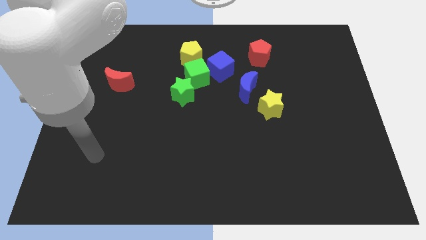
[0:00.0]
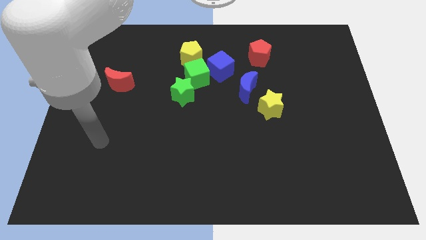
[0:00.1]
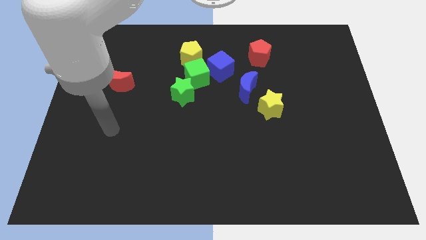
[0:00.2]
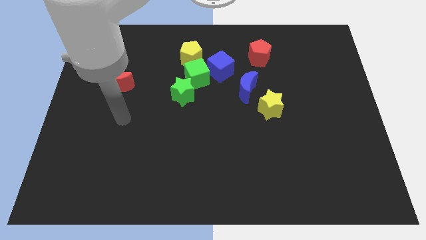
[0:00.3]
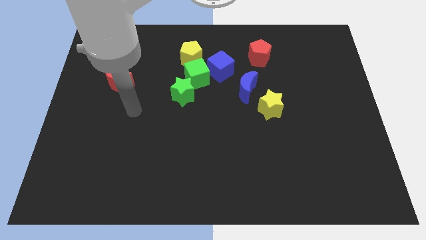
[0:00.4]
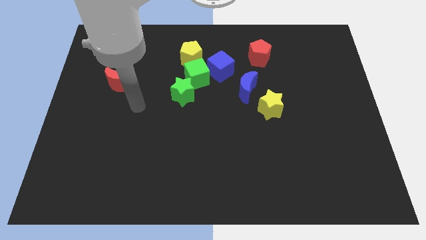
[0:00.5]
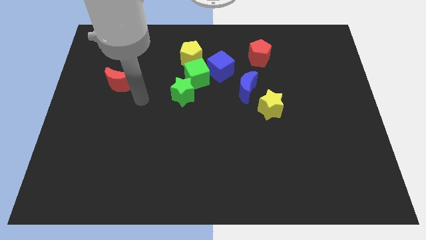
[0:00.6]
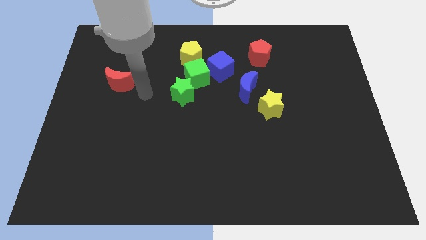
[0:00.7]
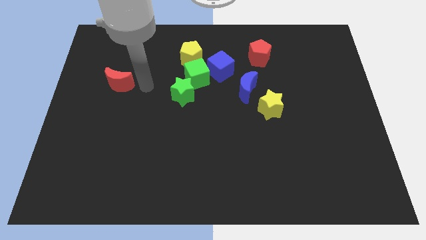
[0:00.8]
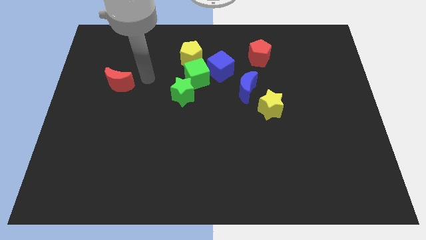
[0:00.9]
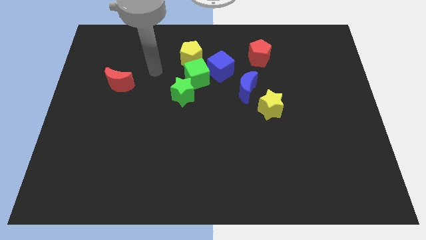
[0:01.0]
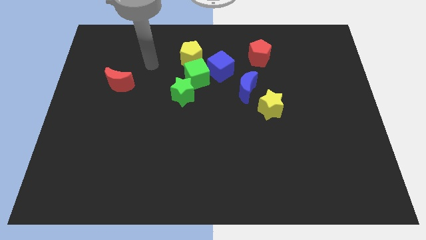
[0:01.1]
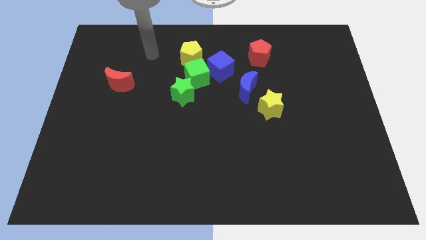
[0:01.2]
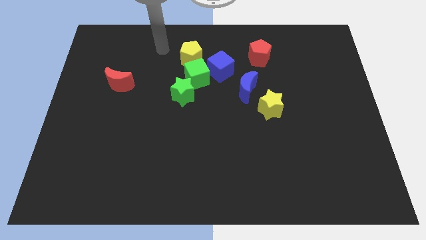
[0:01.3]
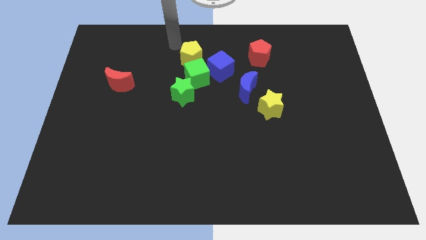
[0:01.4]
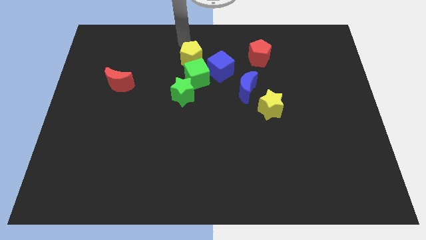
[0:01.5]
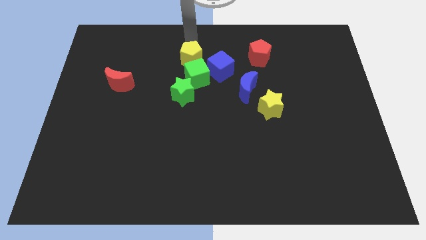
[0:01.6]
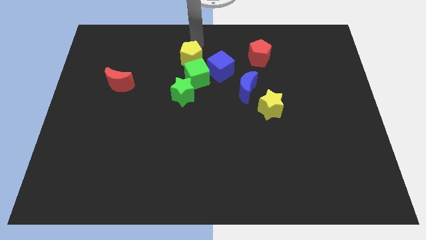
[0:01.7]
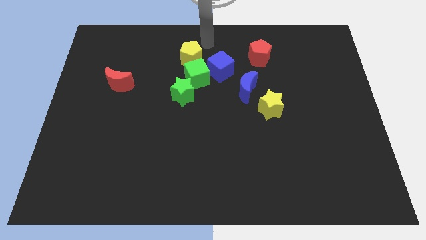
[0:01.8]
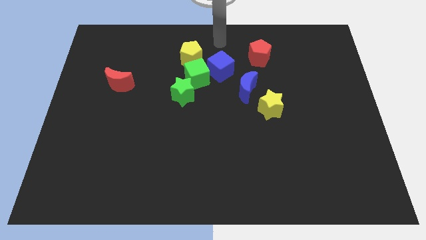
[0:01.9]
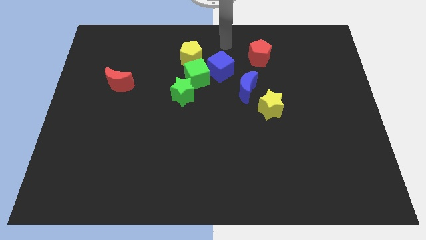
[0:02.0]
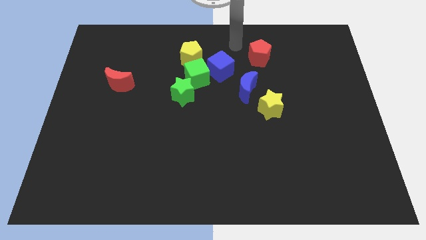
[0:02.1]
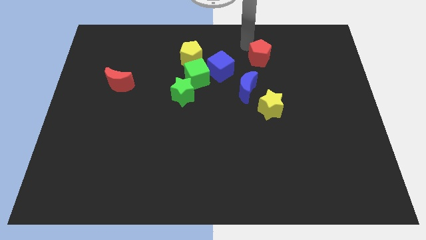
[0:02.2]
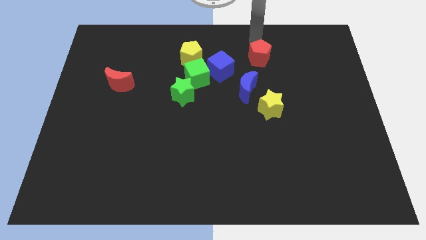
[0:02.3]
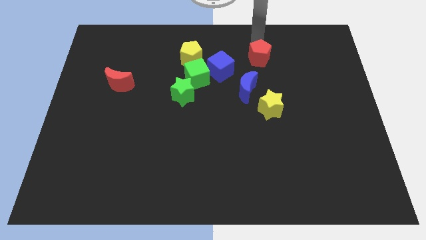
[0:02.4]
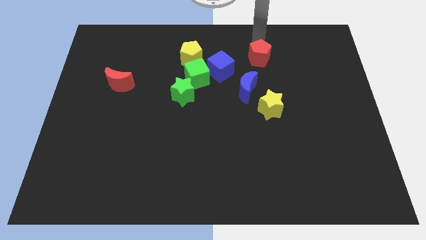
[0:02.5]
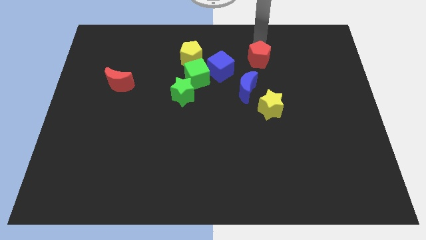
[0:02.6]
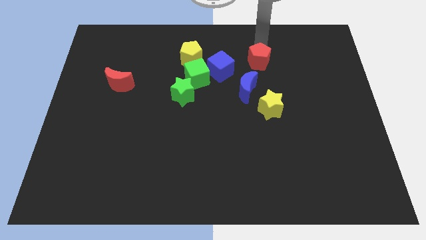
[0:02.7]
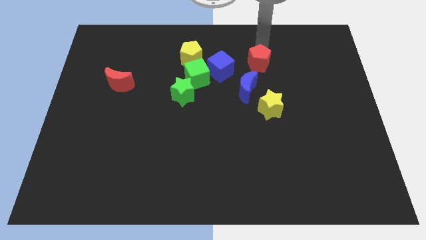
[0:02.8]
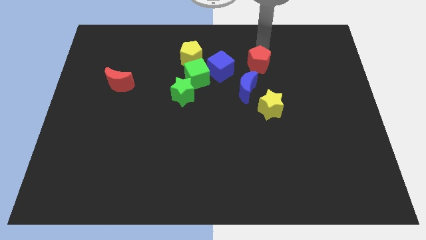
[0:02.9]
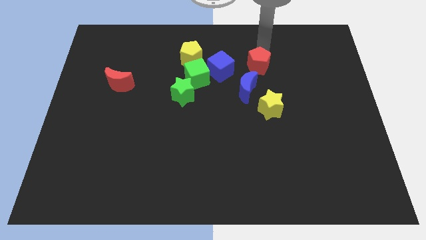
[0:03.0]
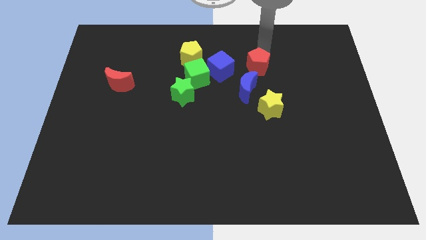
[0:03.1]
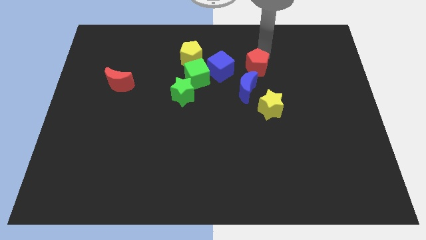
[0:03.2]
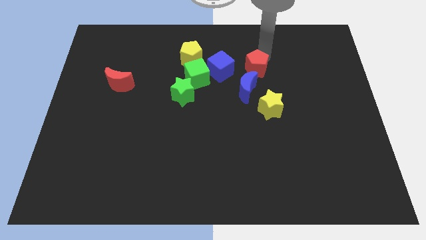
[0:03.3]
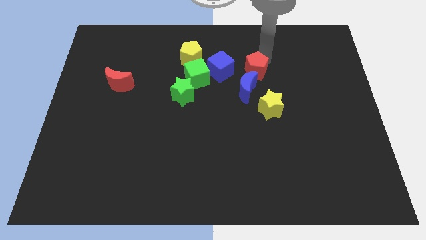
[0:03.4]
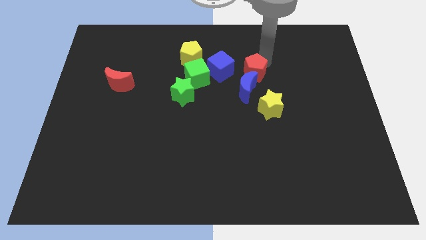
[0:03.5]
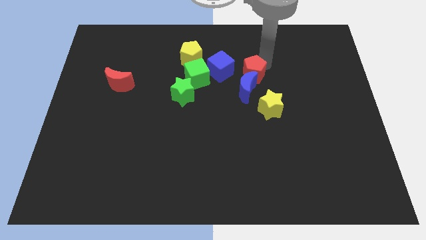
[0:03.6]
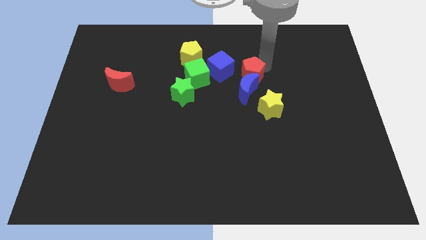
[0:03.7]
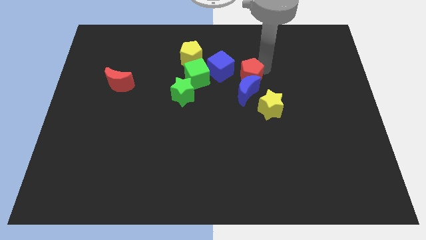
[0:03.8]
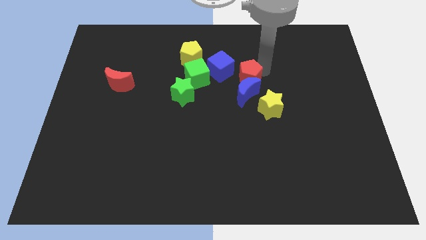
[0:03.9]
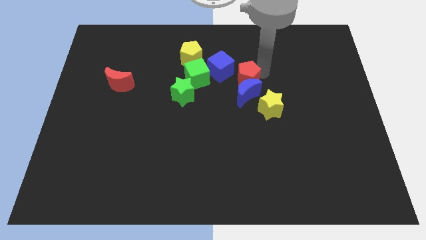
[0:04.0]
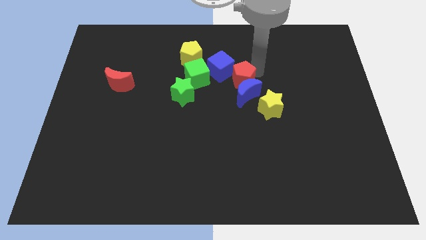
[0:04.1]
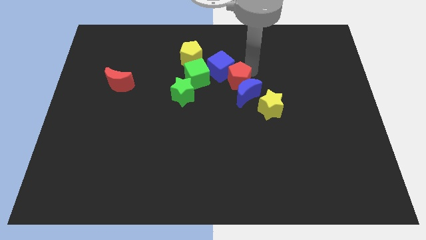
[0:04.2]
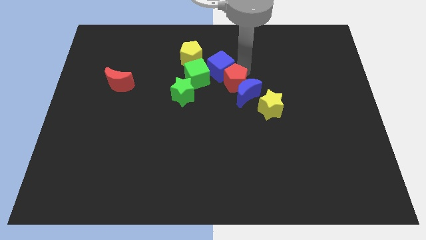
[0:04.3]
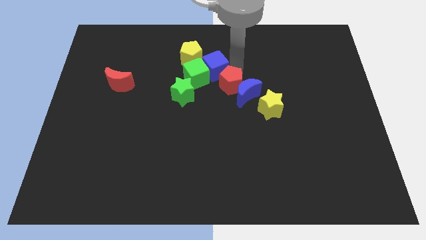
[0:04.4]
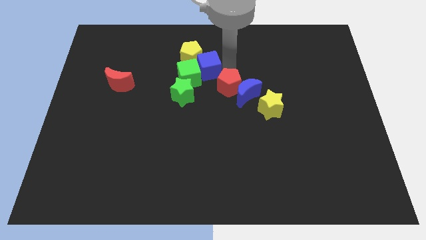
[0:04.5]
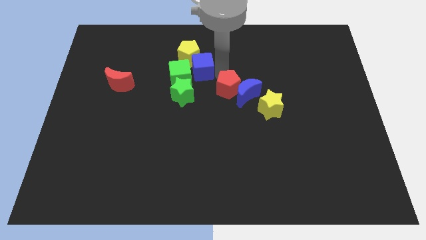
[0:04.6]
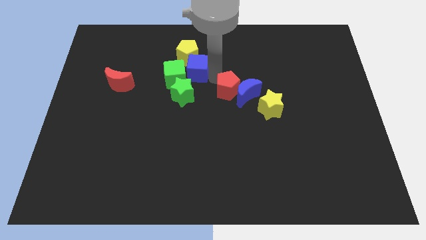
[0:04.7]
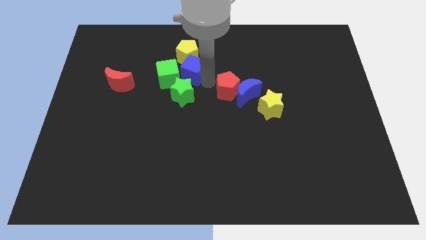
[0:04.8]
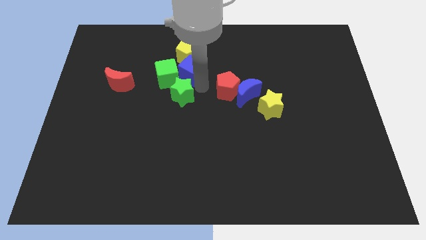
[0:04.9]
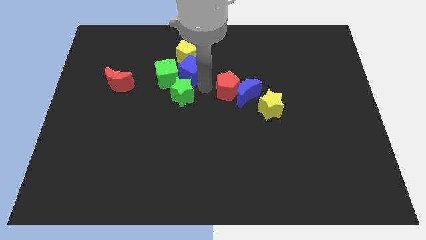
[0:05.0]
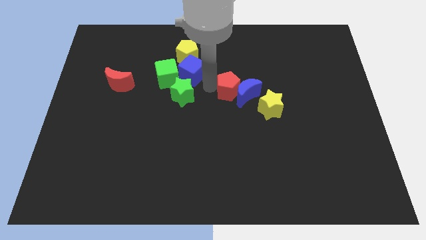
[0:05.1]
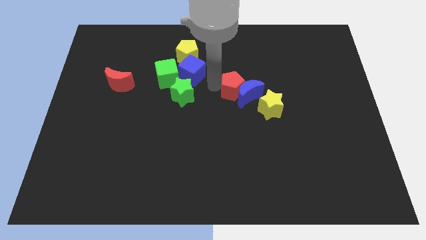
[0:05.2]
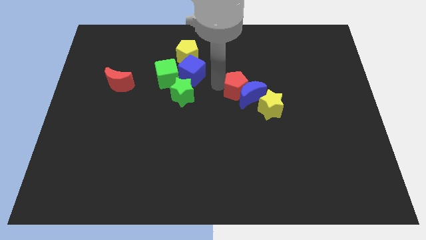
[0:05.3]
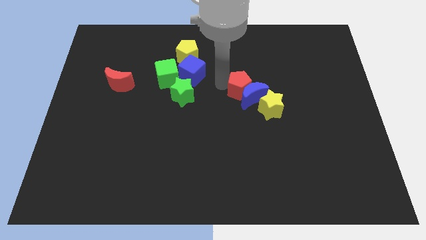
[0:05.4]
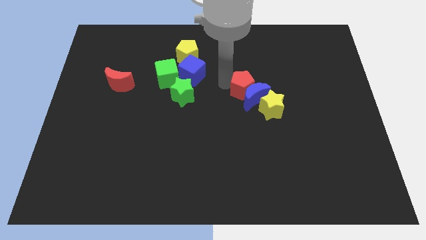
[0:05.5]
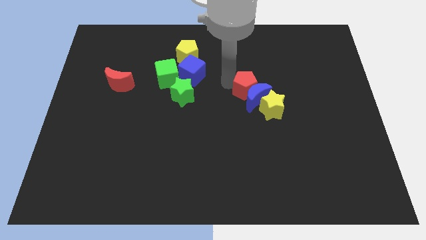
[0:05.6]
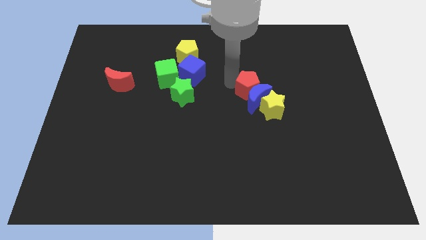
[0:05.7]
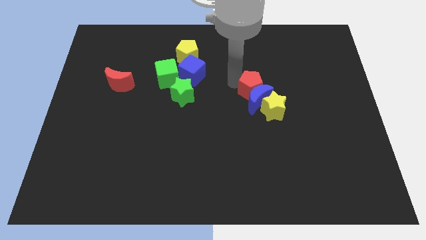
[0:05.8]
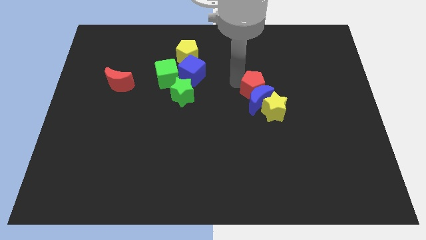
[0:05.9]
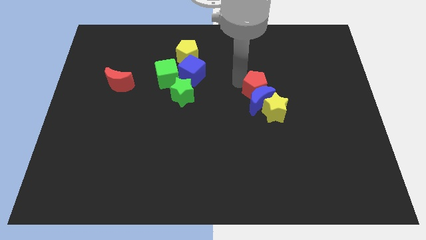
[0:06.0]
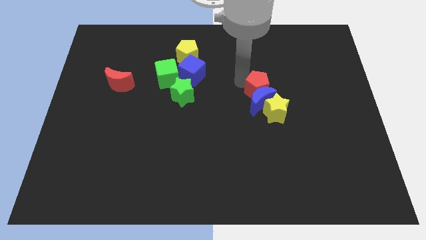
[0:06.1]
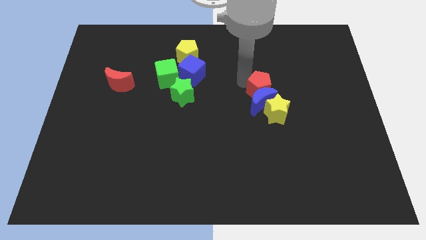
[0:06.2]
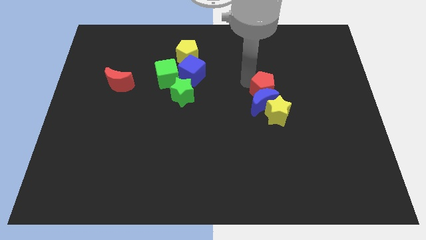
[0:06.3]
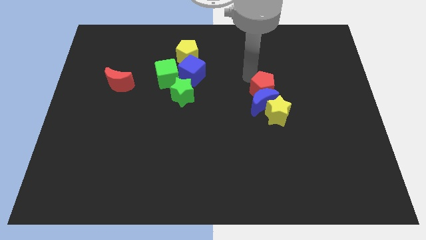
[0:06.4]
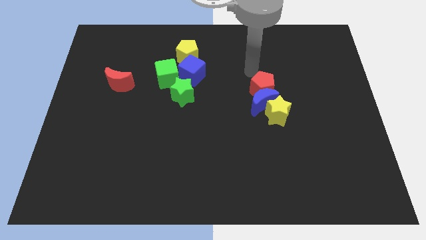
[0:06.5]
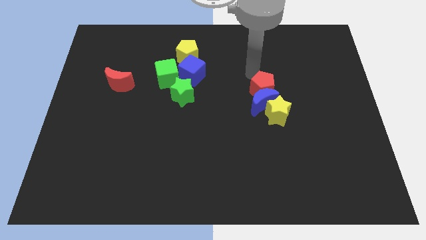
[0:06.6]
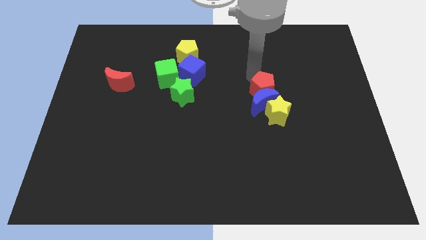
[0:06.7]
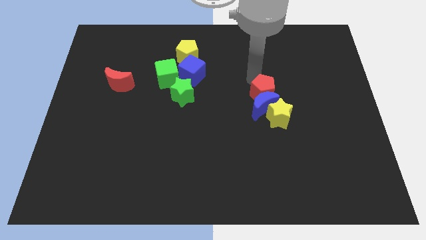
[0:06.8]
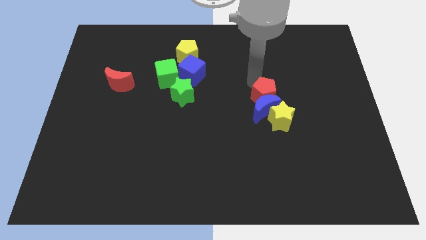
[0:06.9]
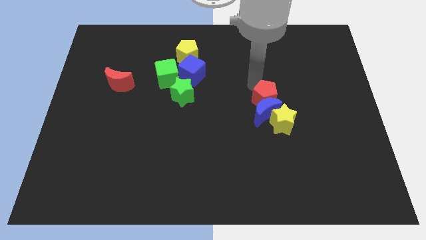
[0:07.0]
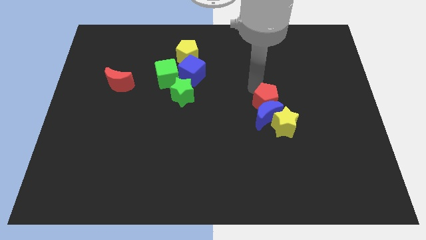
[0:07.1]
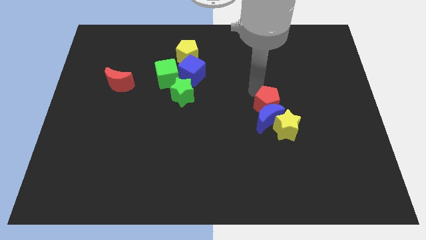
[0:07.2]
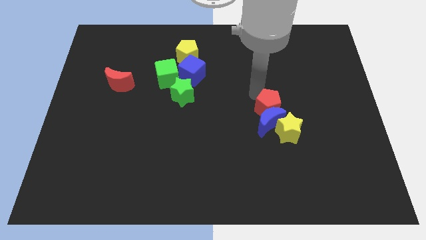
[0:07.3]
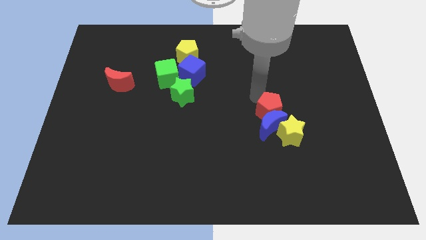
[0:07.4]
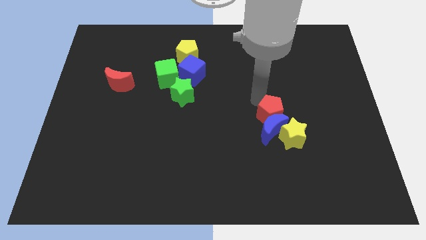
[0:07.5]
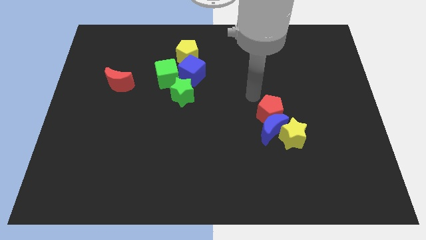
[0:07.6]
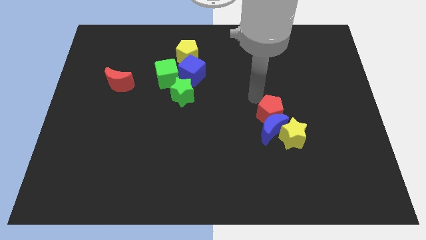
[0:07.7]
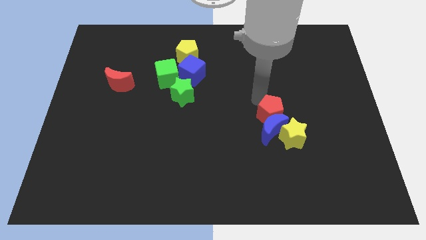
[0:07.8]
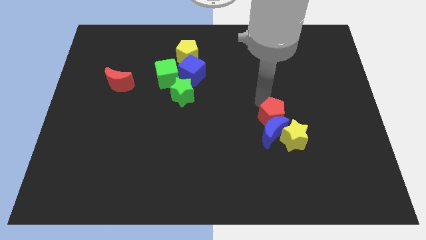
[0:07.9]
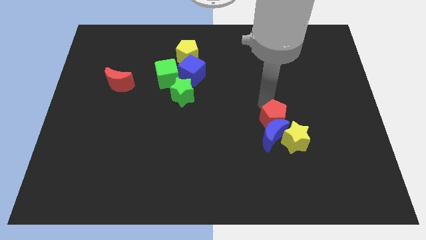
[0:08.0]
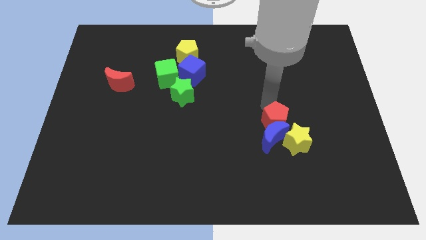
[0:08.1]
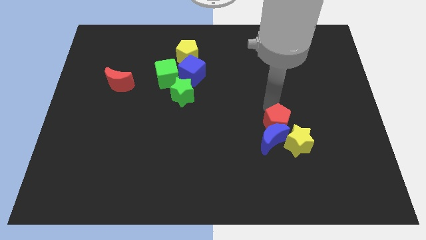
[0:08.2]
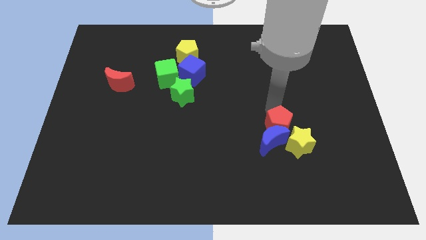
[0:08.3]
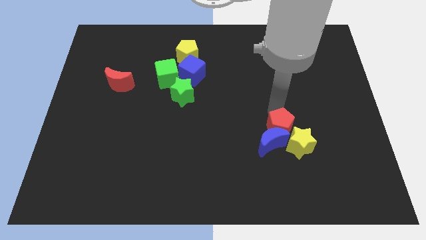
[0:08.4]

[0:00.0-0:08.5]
move the red pentagon towards the yellow star
